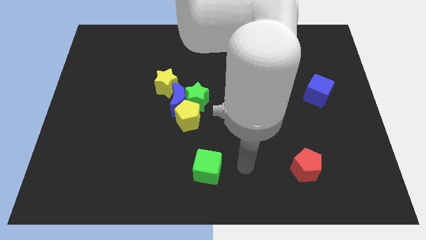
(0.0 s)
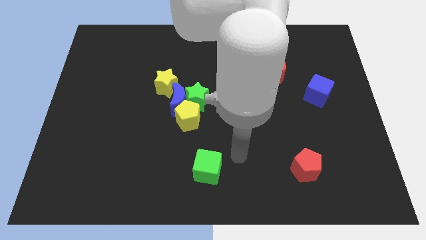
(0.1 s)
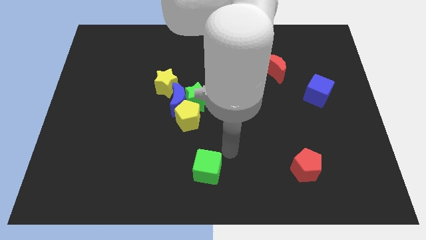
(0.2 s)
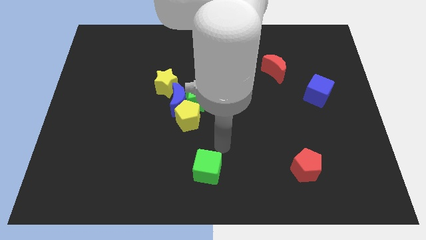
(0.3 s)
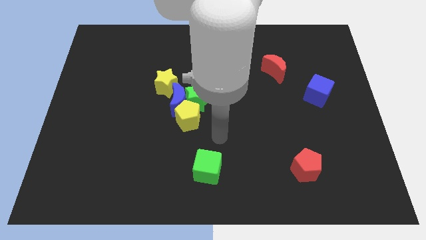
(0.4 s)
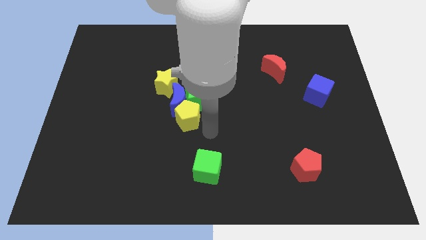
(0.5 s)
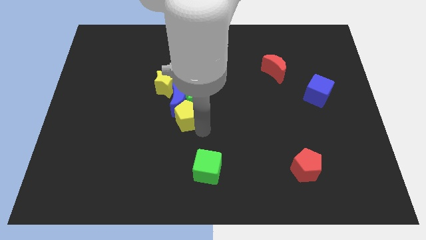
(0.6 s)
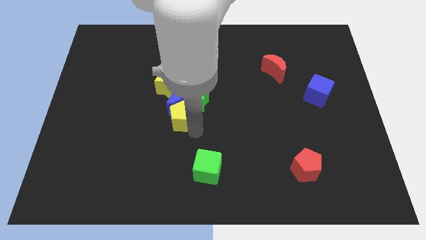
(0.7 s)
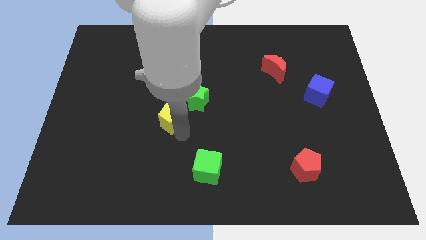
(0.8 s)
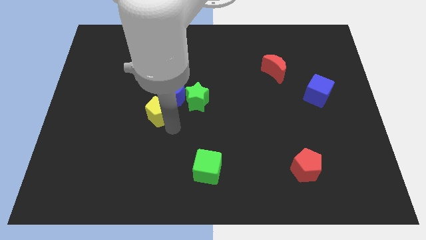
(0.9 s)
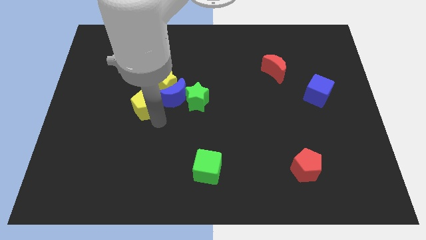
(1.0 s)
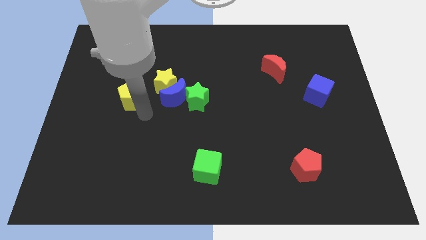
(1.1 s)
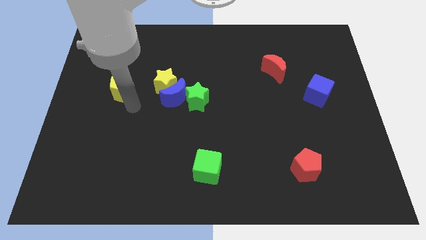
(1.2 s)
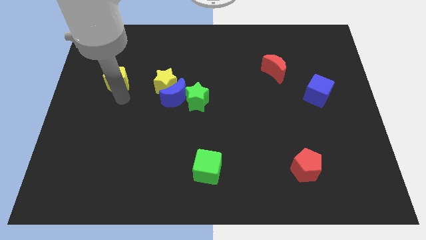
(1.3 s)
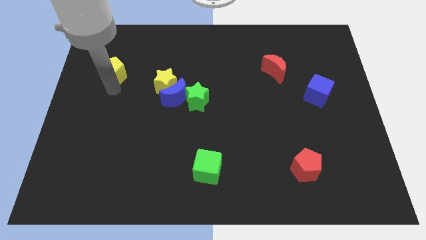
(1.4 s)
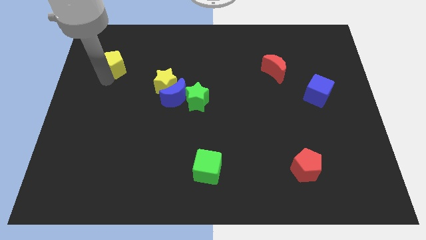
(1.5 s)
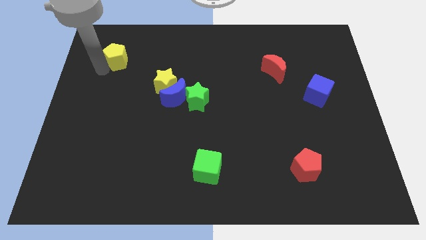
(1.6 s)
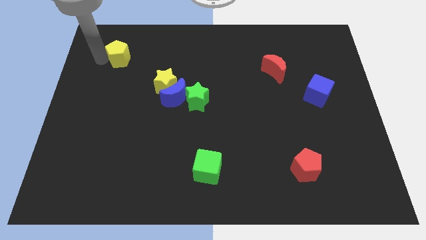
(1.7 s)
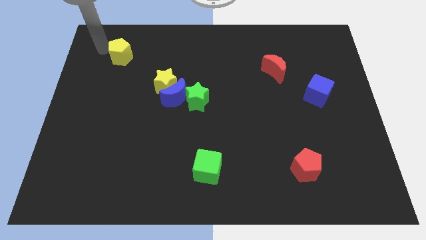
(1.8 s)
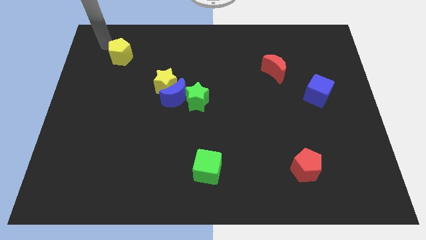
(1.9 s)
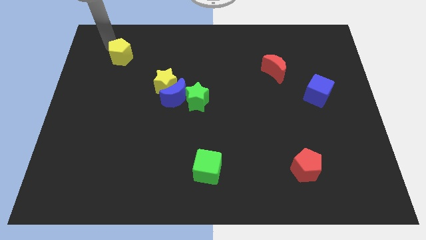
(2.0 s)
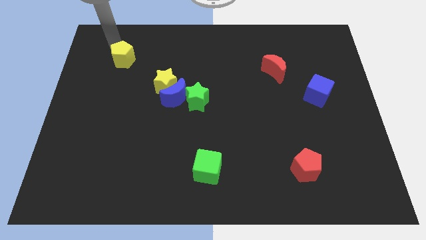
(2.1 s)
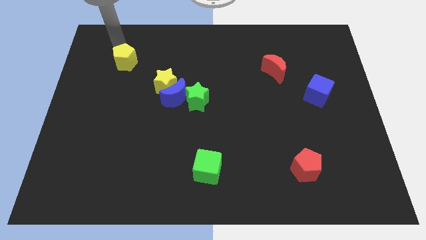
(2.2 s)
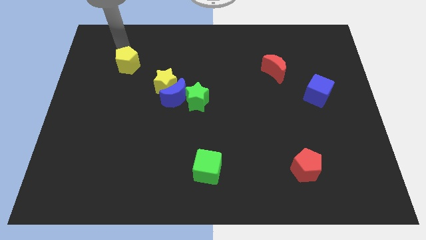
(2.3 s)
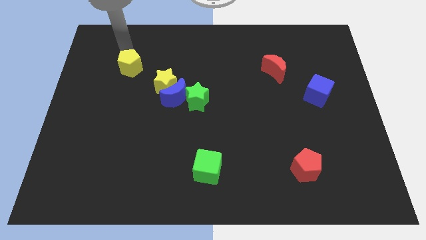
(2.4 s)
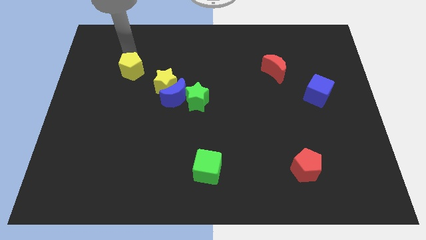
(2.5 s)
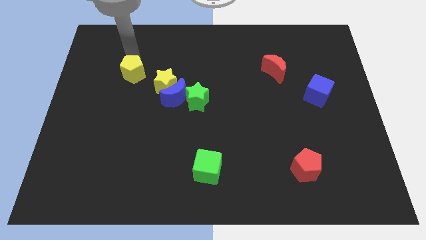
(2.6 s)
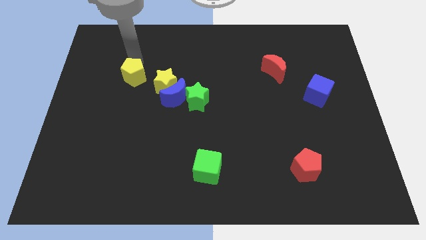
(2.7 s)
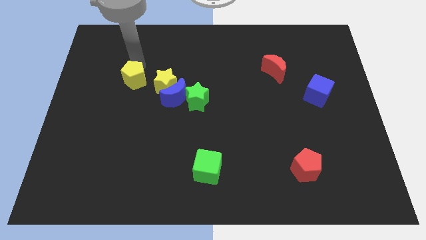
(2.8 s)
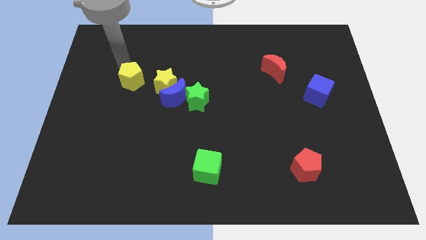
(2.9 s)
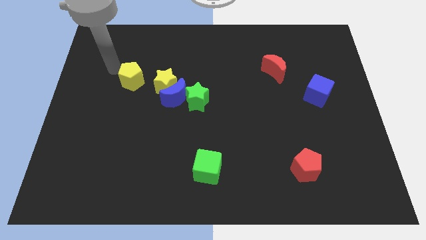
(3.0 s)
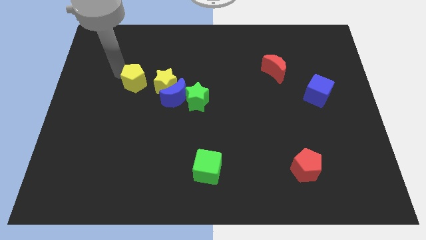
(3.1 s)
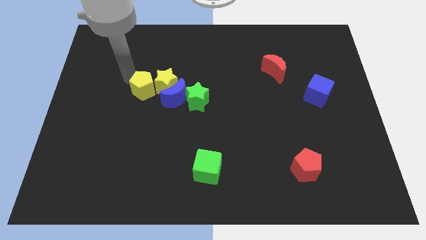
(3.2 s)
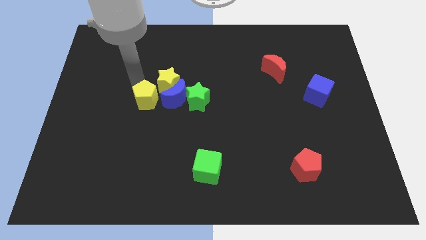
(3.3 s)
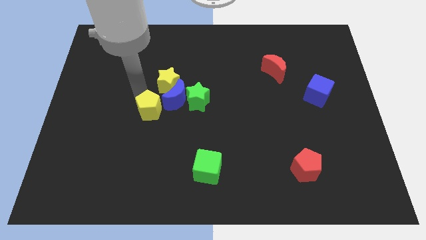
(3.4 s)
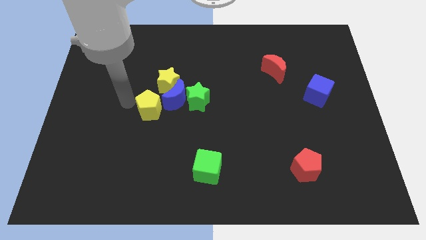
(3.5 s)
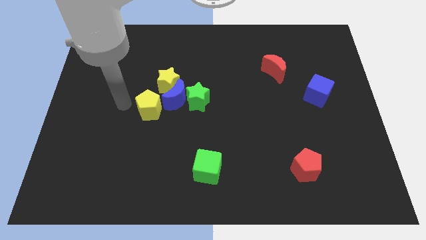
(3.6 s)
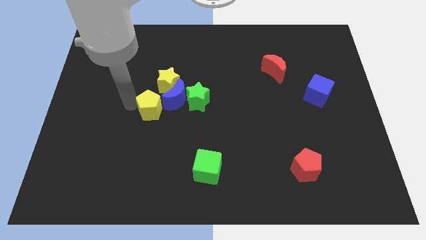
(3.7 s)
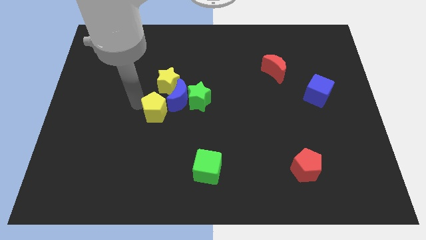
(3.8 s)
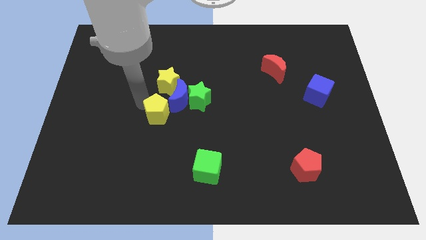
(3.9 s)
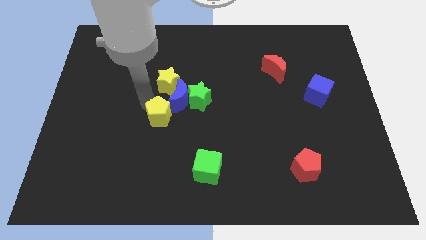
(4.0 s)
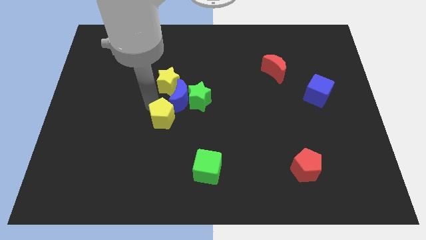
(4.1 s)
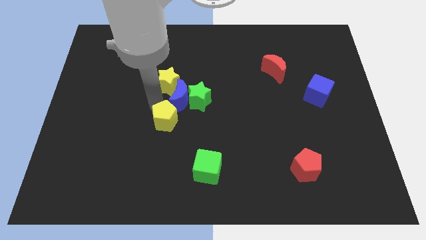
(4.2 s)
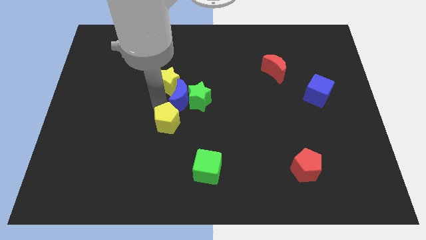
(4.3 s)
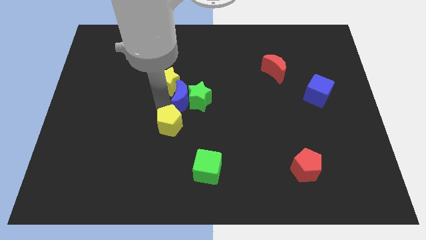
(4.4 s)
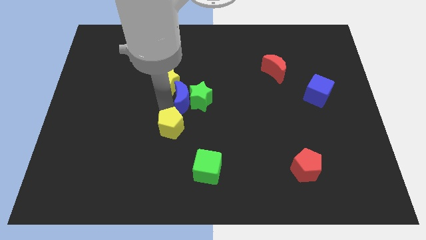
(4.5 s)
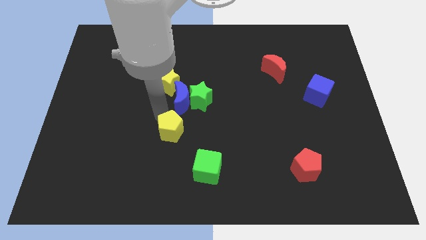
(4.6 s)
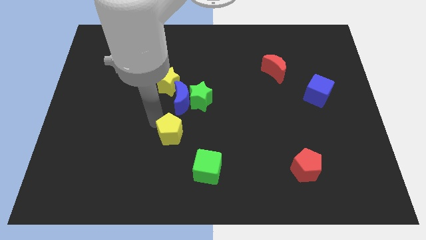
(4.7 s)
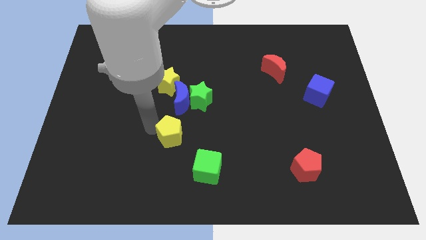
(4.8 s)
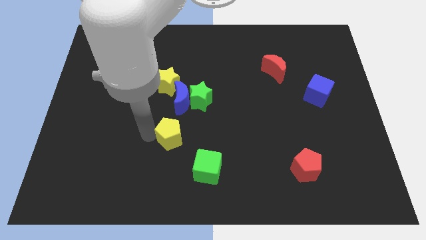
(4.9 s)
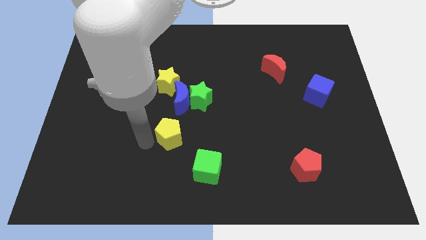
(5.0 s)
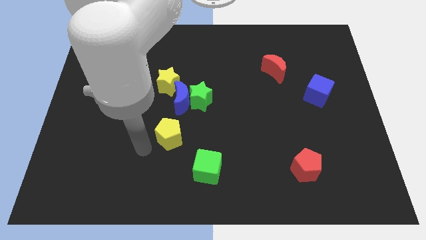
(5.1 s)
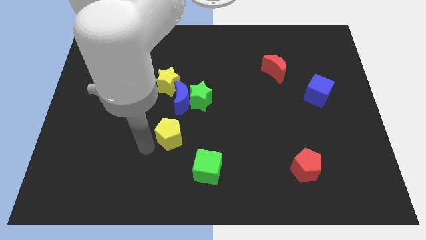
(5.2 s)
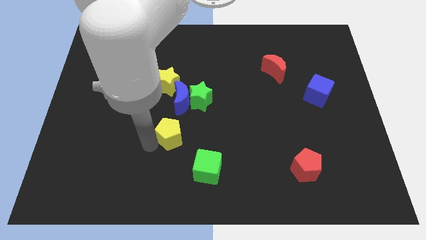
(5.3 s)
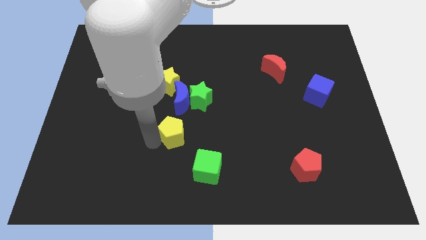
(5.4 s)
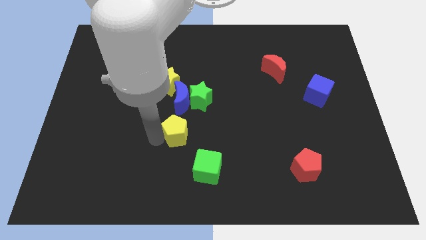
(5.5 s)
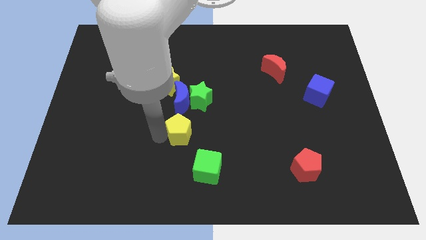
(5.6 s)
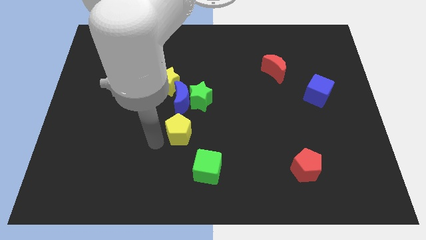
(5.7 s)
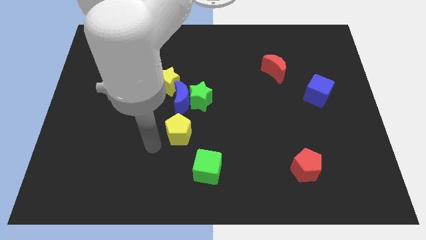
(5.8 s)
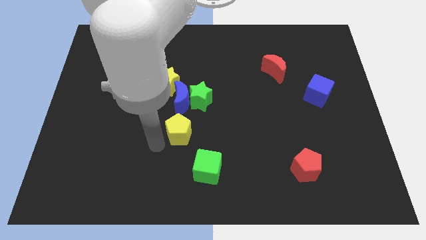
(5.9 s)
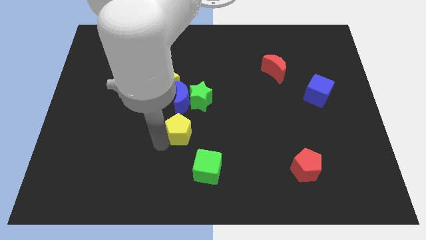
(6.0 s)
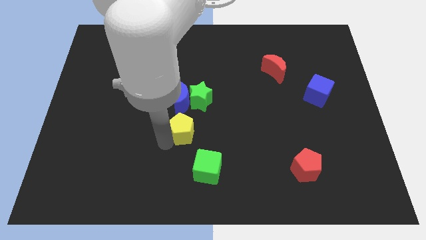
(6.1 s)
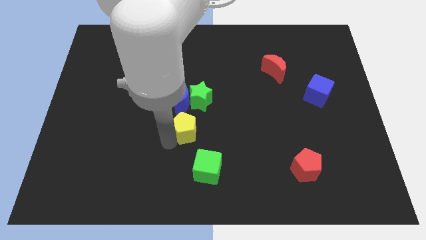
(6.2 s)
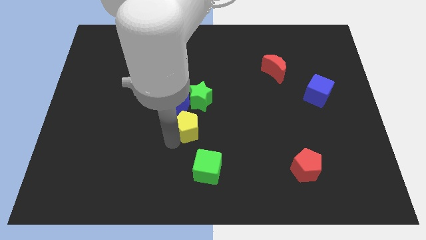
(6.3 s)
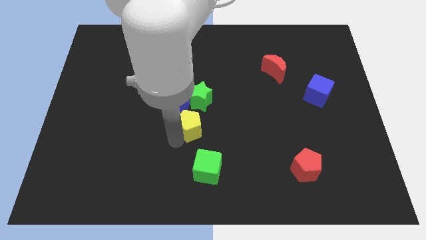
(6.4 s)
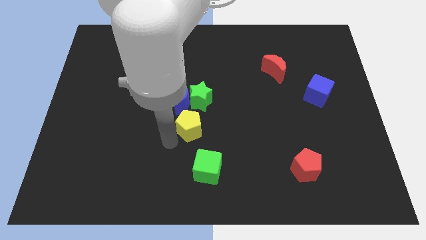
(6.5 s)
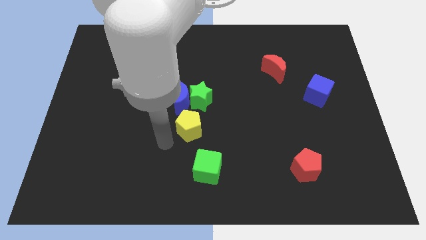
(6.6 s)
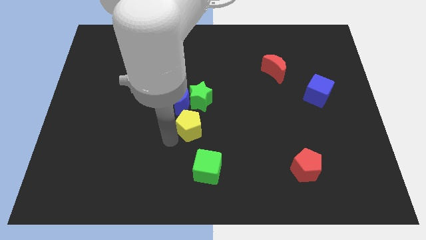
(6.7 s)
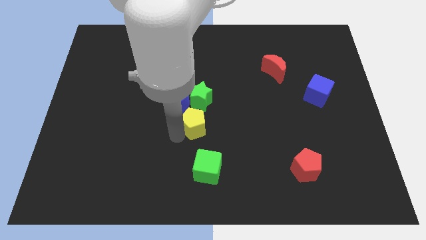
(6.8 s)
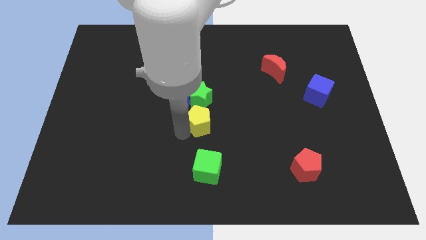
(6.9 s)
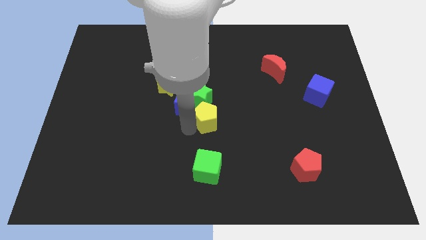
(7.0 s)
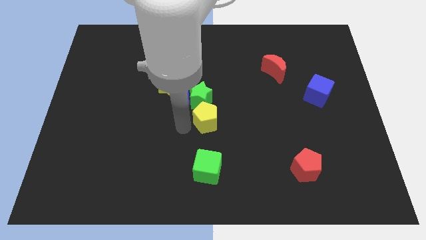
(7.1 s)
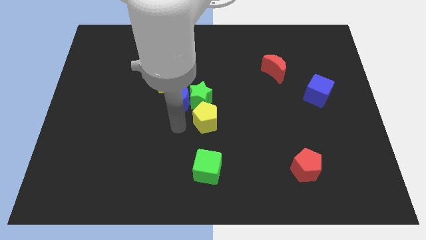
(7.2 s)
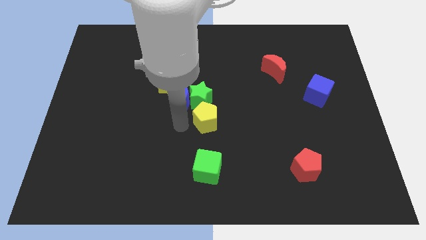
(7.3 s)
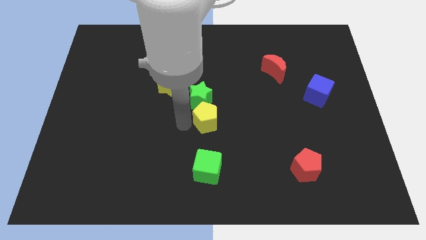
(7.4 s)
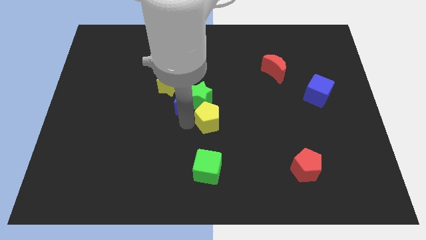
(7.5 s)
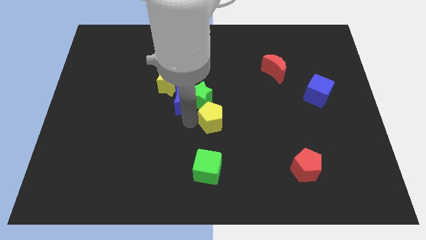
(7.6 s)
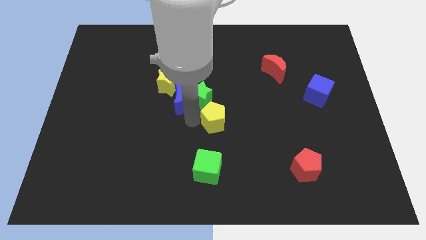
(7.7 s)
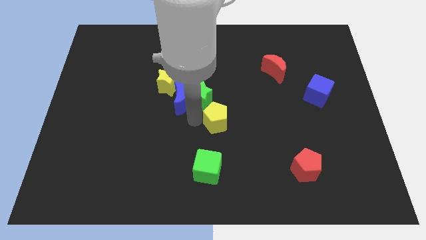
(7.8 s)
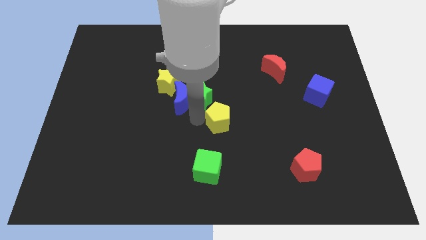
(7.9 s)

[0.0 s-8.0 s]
push the yellow pentagon right a little
